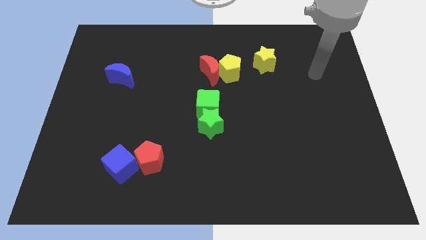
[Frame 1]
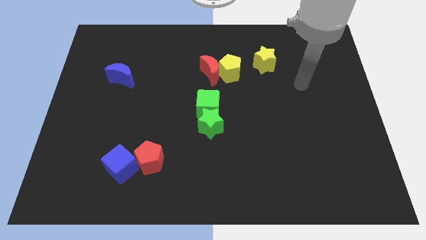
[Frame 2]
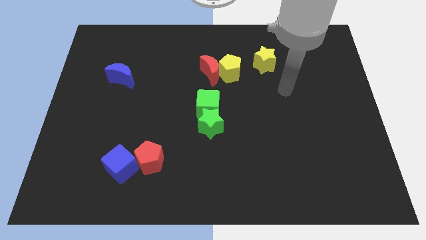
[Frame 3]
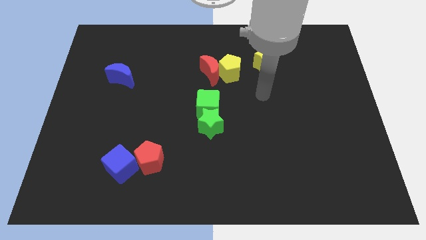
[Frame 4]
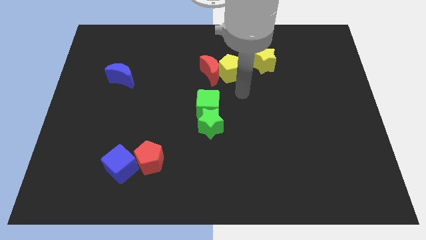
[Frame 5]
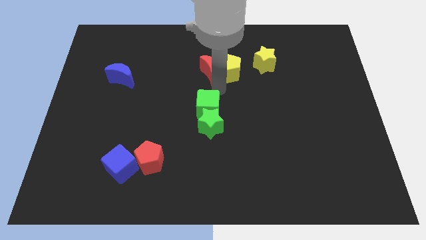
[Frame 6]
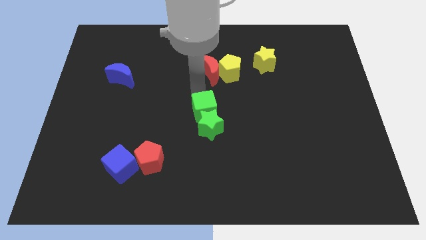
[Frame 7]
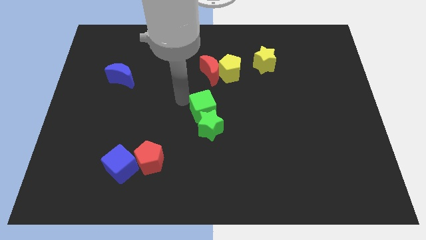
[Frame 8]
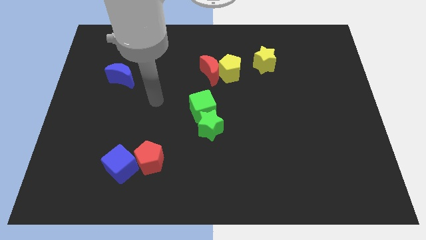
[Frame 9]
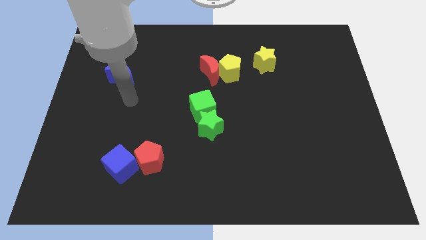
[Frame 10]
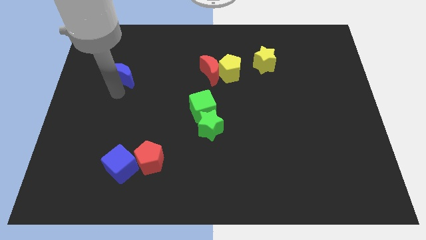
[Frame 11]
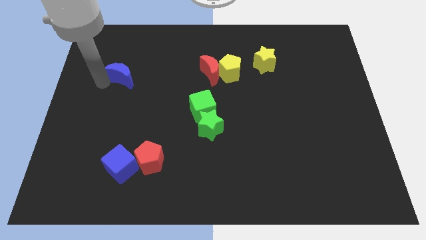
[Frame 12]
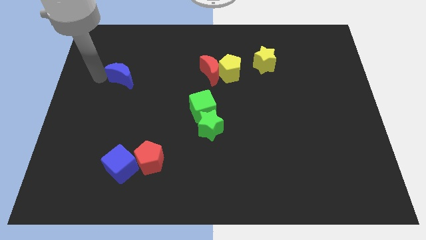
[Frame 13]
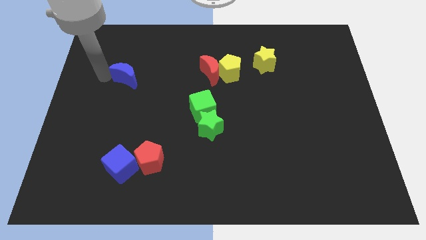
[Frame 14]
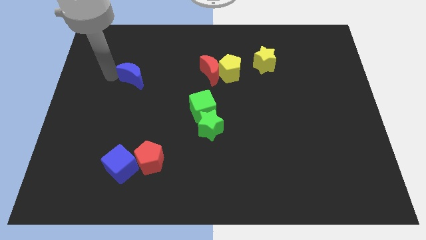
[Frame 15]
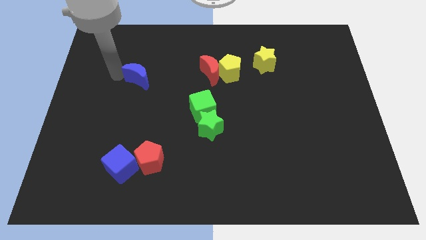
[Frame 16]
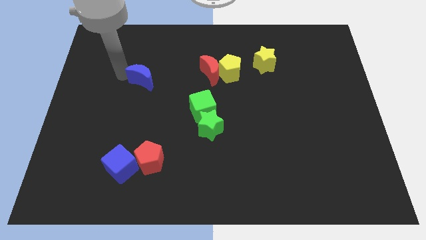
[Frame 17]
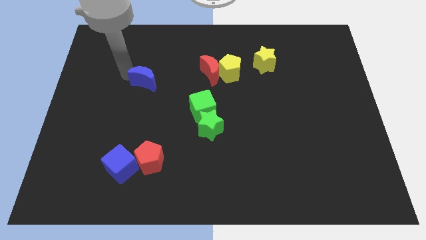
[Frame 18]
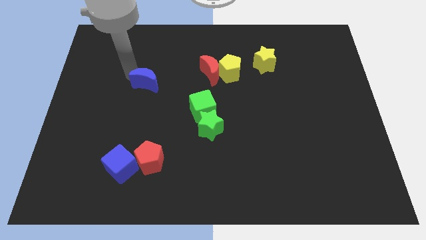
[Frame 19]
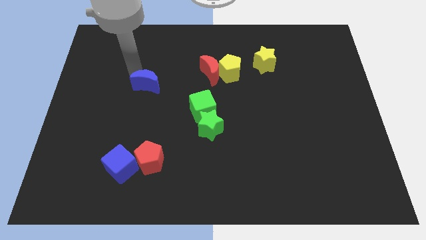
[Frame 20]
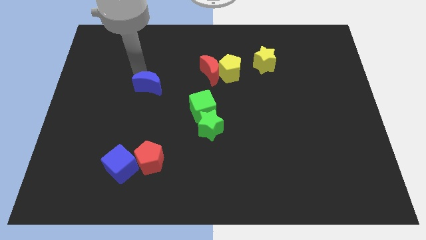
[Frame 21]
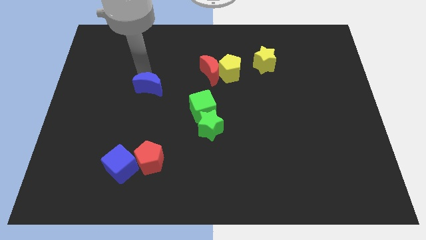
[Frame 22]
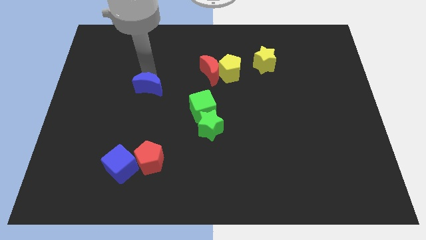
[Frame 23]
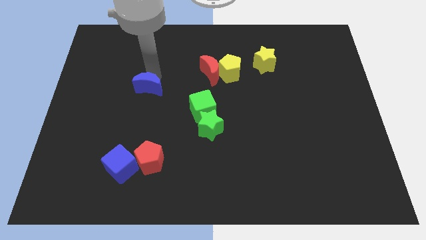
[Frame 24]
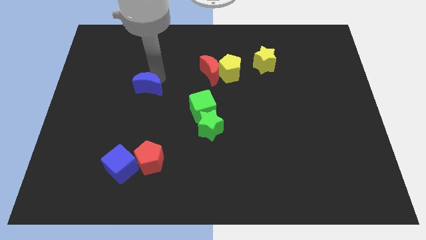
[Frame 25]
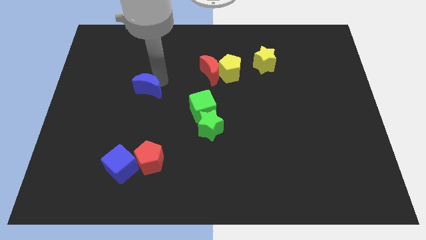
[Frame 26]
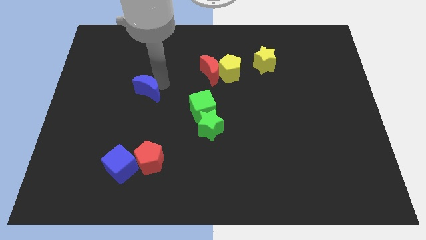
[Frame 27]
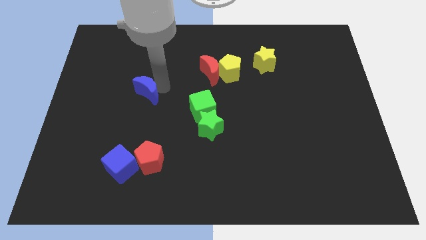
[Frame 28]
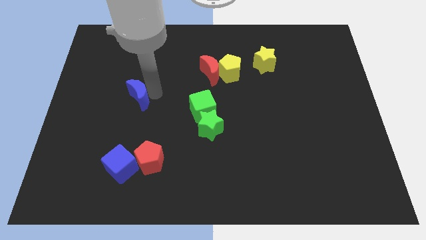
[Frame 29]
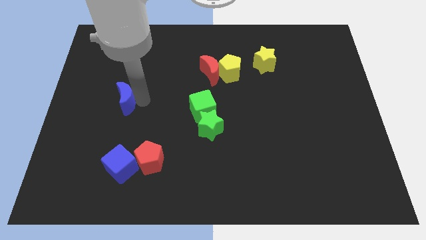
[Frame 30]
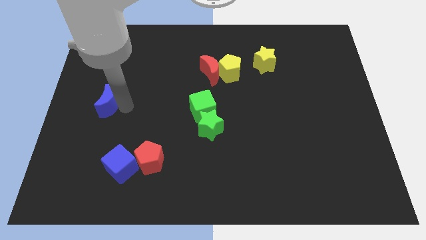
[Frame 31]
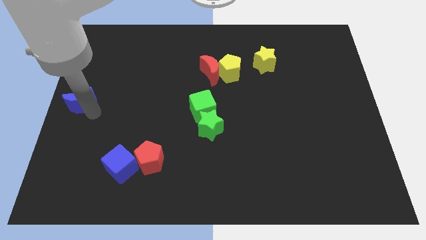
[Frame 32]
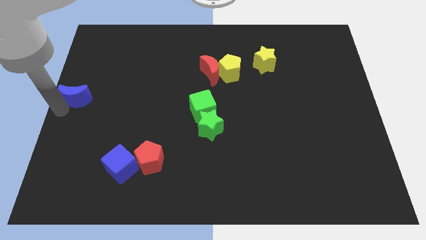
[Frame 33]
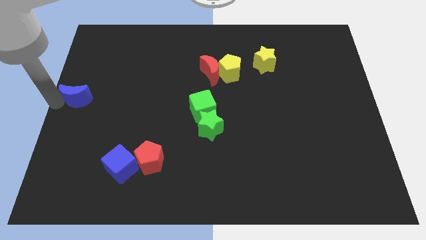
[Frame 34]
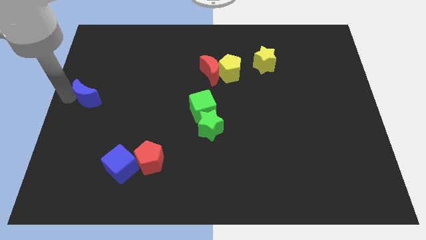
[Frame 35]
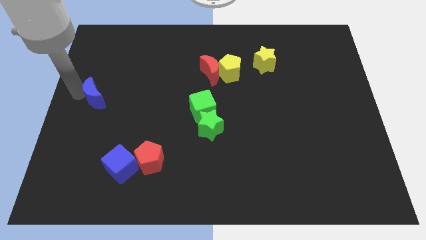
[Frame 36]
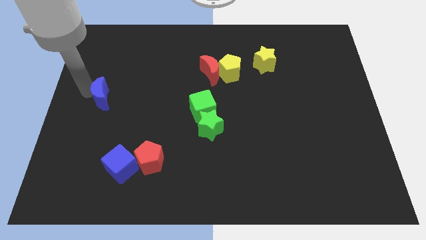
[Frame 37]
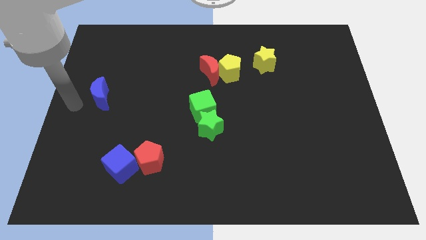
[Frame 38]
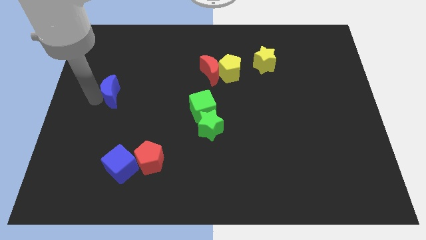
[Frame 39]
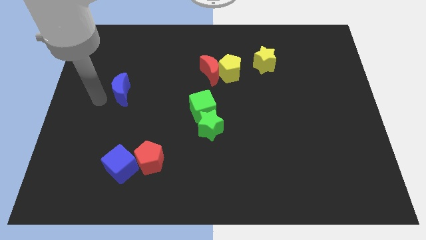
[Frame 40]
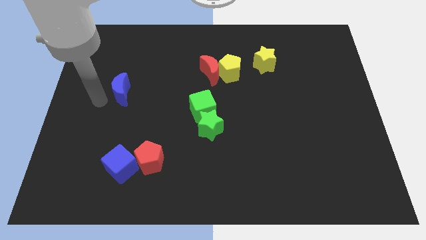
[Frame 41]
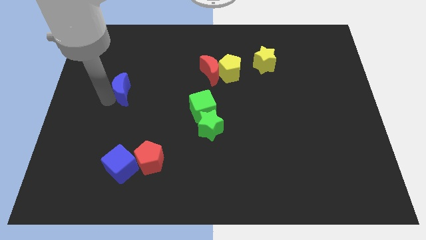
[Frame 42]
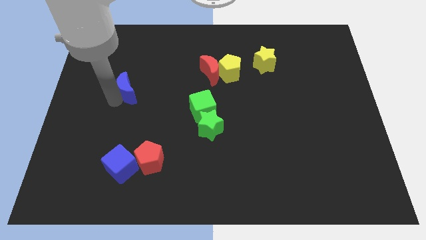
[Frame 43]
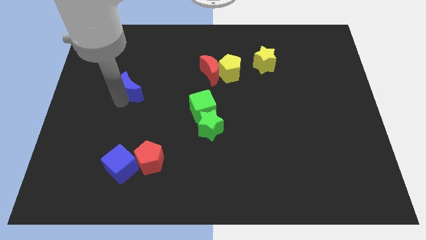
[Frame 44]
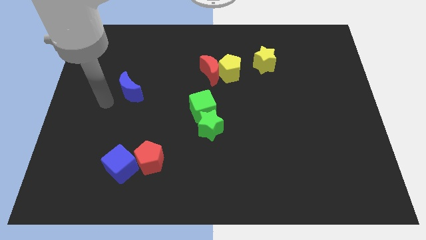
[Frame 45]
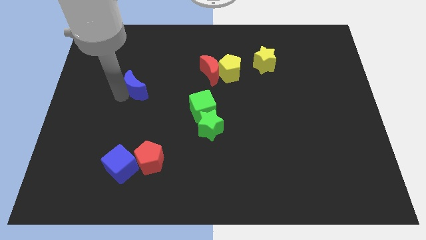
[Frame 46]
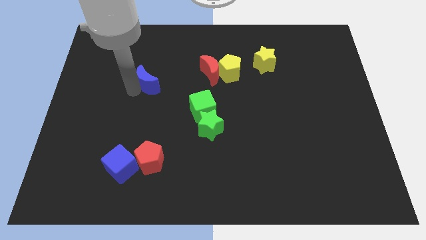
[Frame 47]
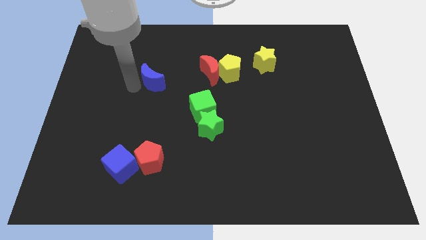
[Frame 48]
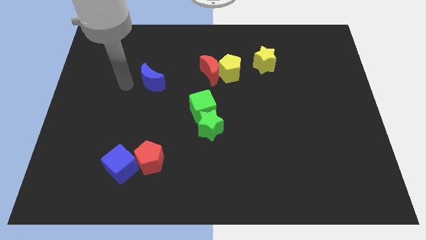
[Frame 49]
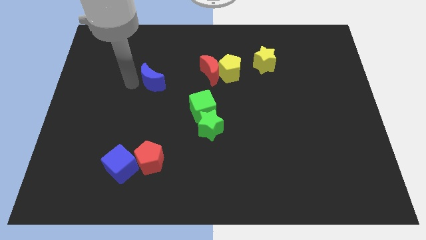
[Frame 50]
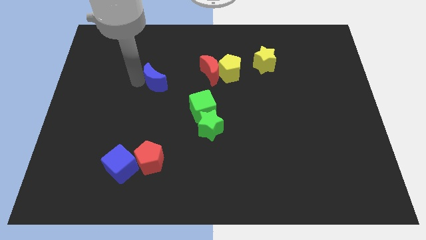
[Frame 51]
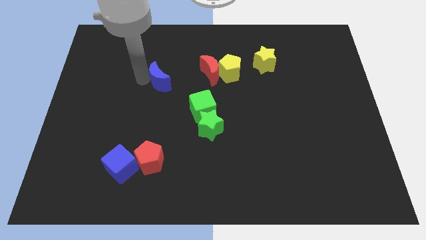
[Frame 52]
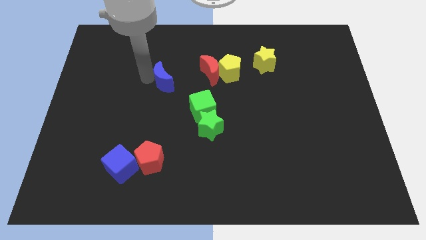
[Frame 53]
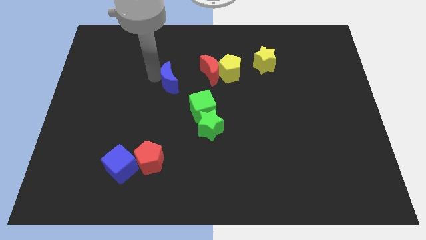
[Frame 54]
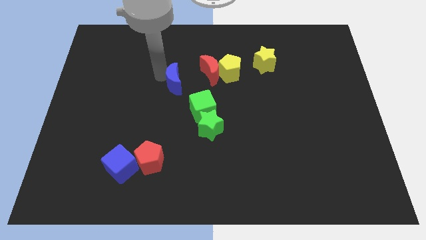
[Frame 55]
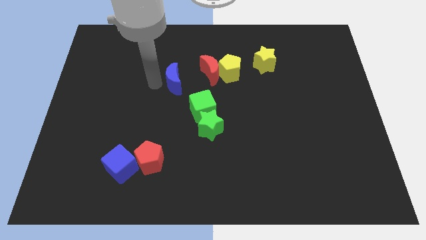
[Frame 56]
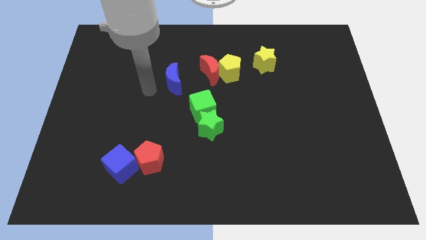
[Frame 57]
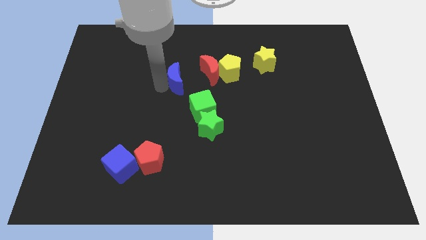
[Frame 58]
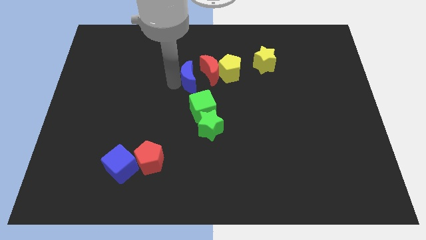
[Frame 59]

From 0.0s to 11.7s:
slide the blue moon close to the red moon

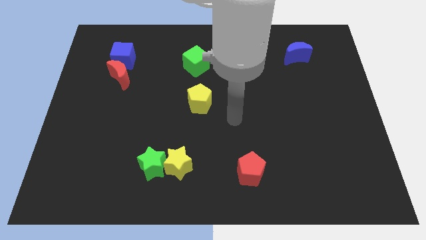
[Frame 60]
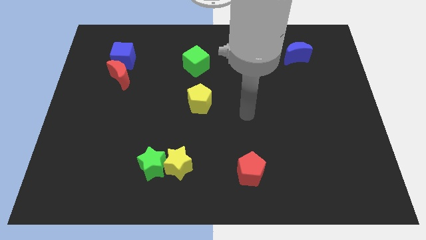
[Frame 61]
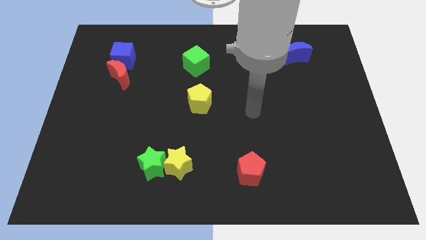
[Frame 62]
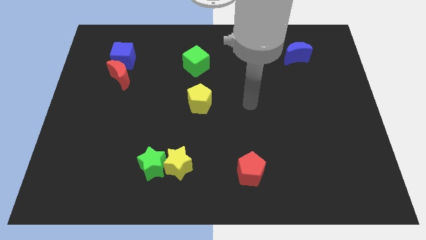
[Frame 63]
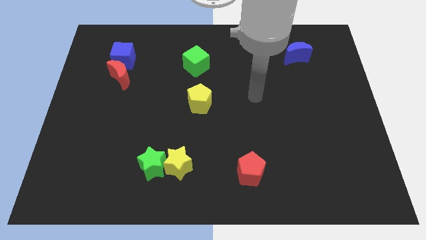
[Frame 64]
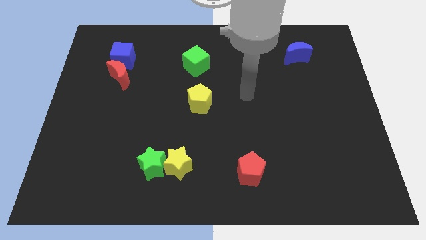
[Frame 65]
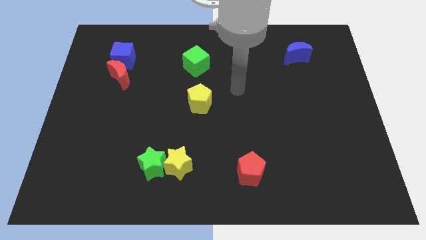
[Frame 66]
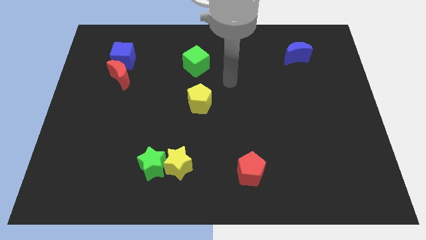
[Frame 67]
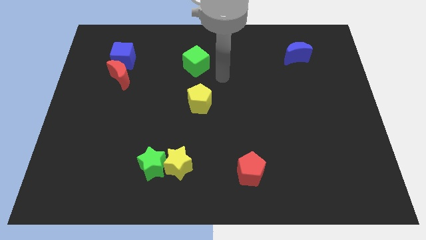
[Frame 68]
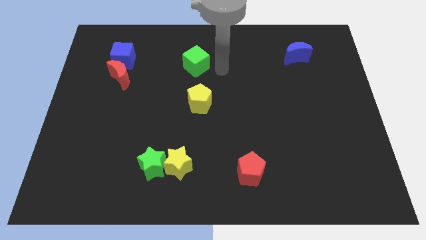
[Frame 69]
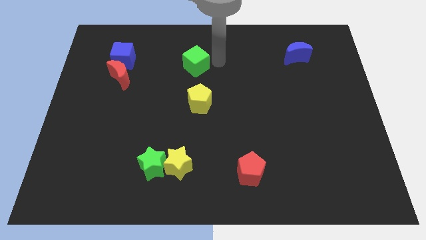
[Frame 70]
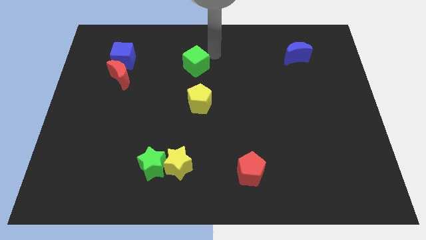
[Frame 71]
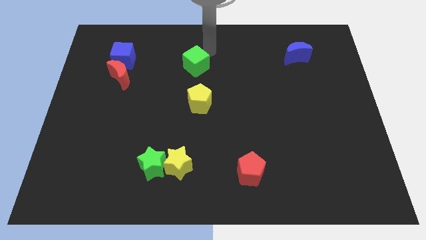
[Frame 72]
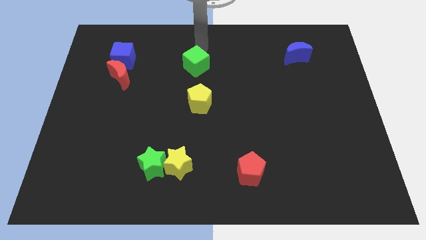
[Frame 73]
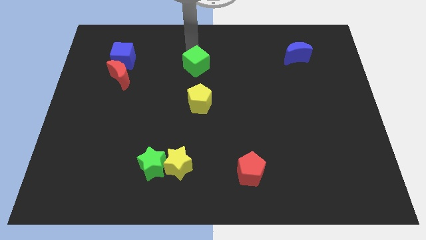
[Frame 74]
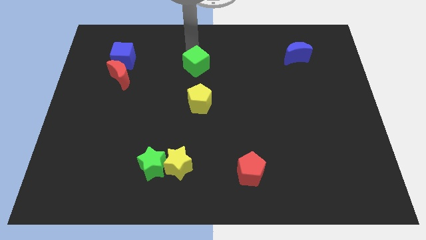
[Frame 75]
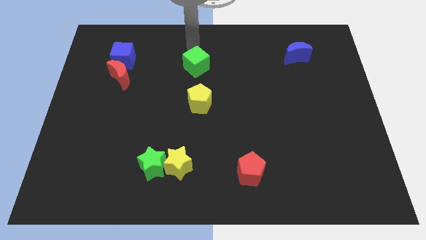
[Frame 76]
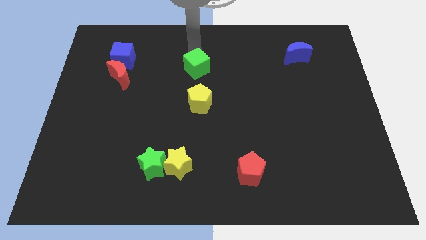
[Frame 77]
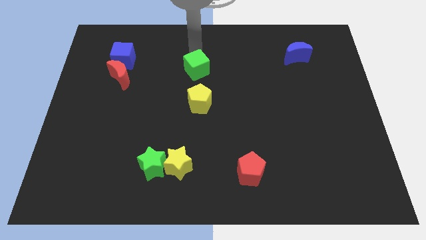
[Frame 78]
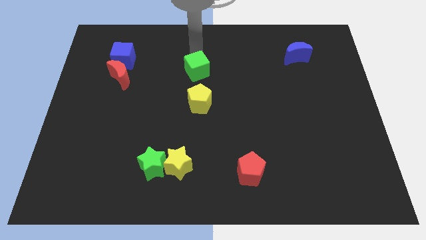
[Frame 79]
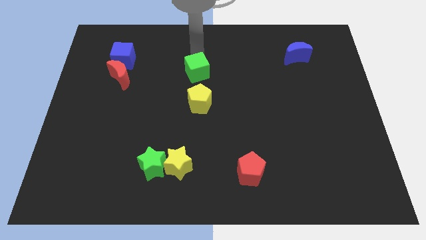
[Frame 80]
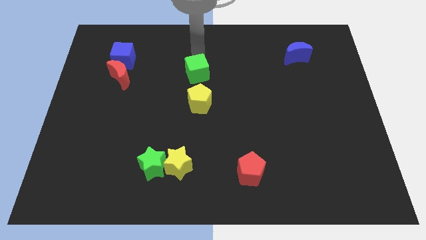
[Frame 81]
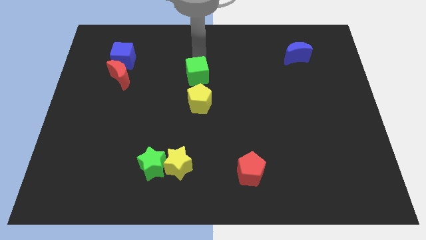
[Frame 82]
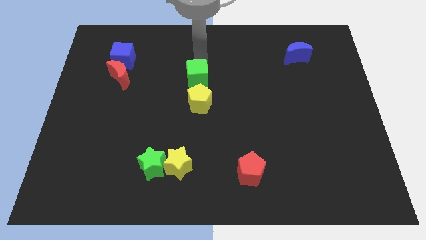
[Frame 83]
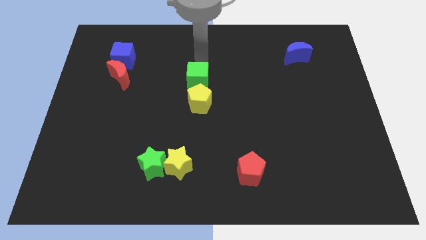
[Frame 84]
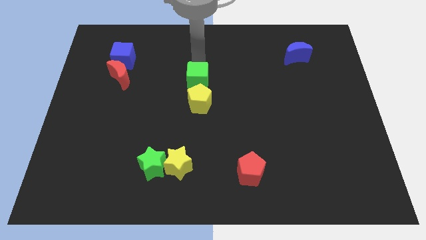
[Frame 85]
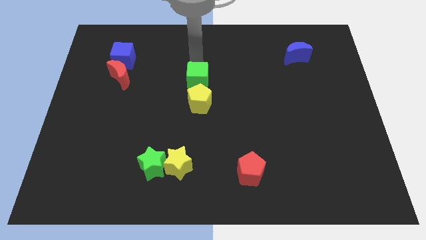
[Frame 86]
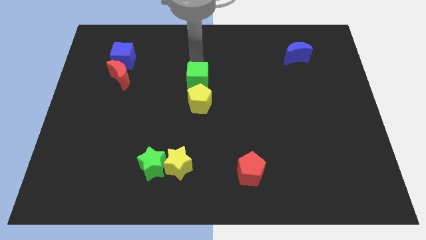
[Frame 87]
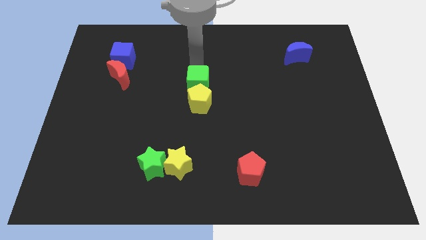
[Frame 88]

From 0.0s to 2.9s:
put the green cube close to the yellow pentagon
